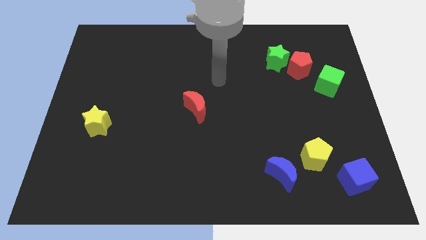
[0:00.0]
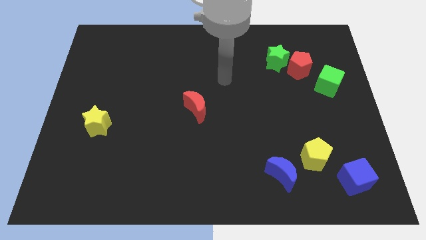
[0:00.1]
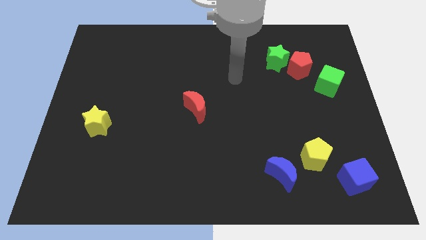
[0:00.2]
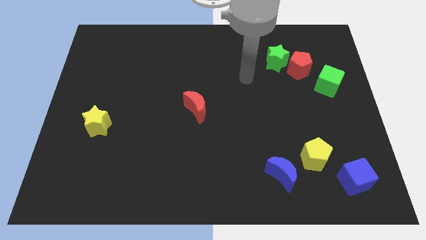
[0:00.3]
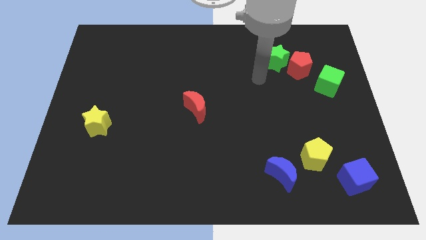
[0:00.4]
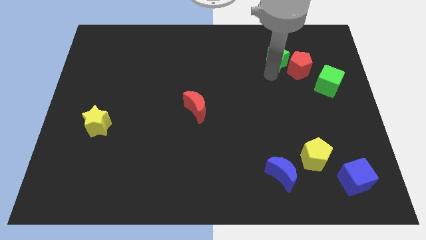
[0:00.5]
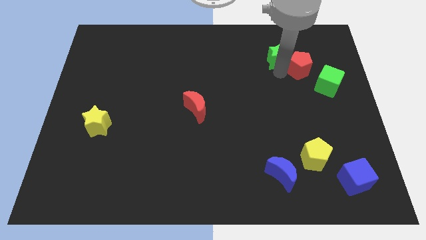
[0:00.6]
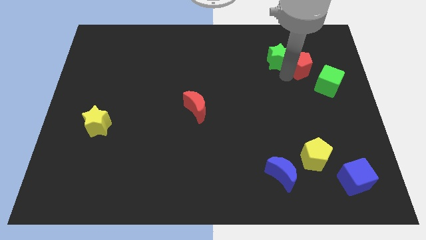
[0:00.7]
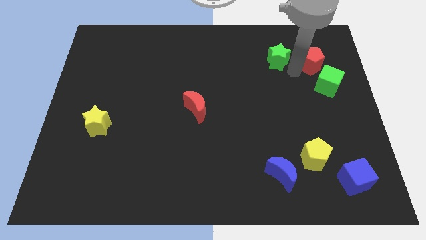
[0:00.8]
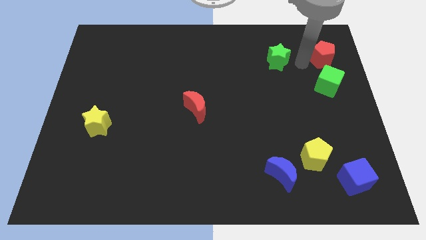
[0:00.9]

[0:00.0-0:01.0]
separate the green star from the red pentagon

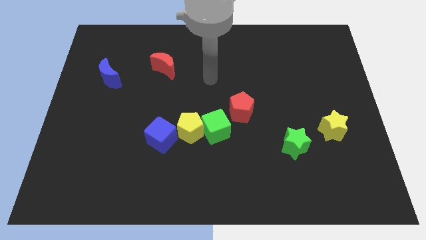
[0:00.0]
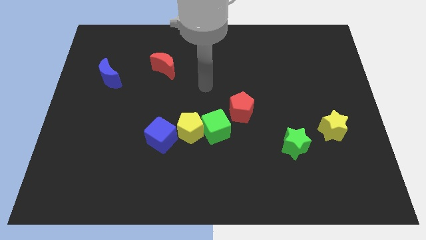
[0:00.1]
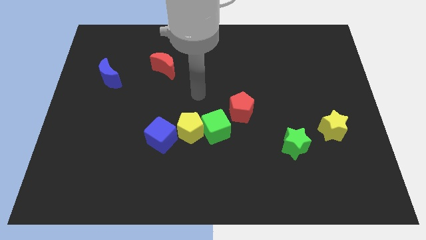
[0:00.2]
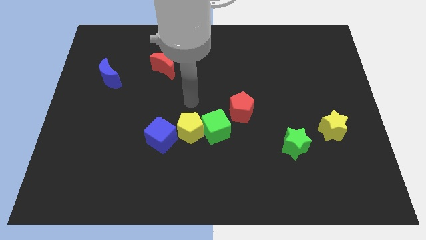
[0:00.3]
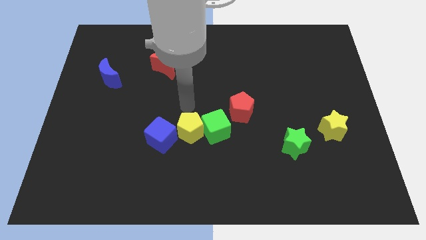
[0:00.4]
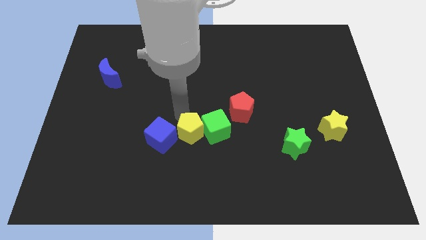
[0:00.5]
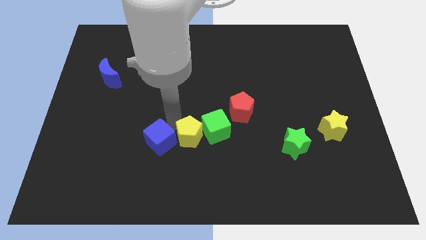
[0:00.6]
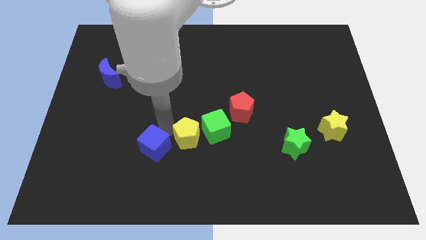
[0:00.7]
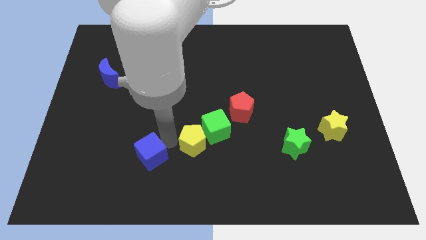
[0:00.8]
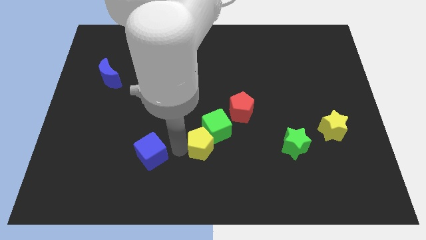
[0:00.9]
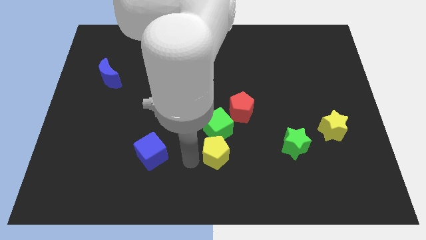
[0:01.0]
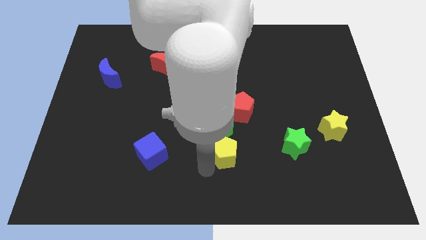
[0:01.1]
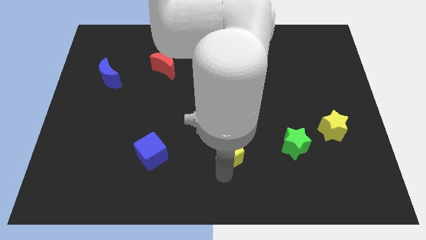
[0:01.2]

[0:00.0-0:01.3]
move the yellow pentagon away from the green cube and blue cube

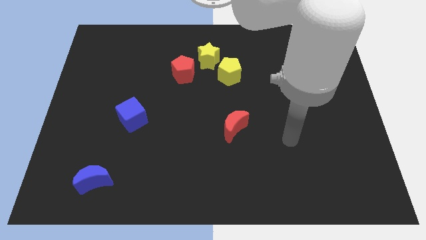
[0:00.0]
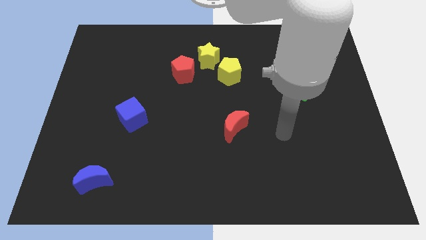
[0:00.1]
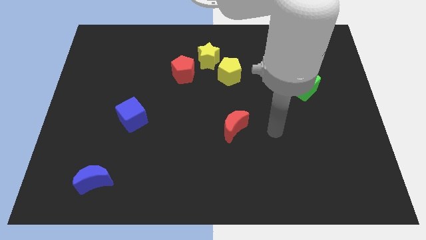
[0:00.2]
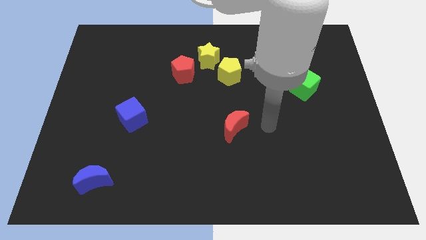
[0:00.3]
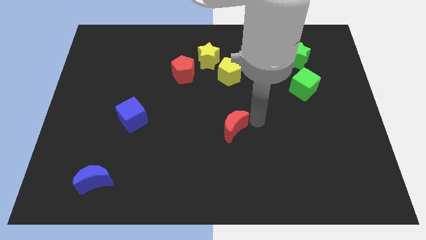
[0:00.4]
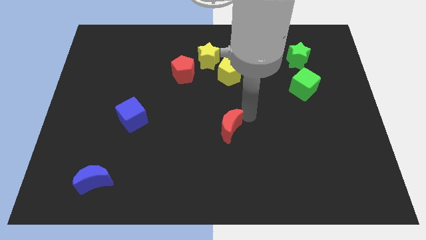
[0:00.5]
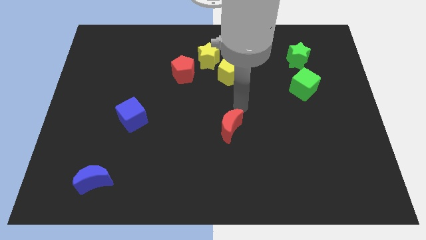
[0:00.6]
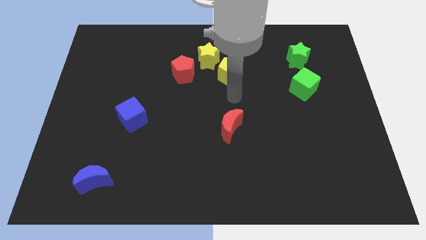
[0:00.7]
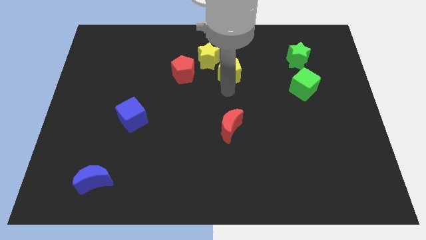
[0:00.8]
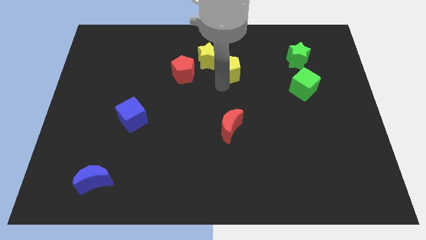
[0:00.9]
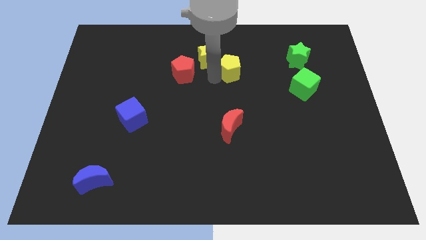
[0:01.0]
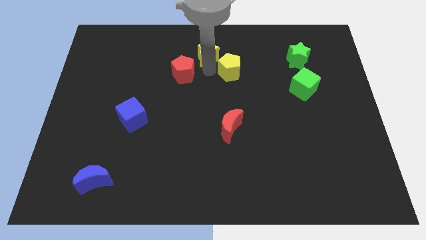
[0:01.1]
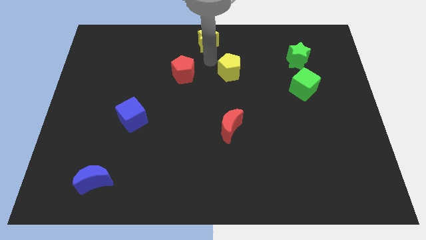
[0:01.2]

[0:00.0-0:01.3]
move the yellow pentagon away from the yellow star

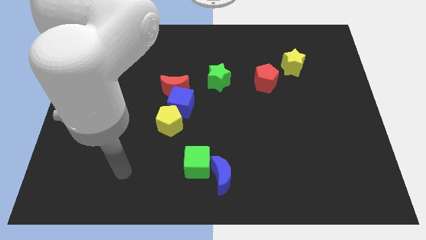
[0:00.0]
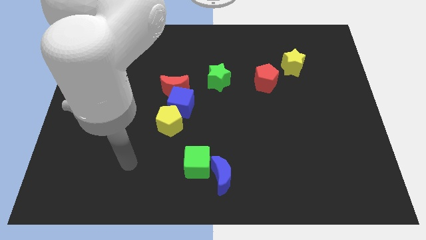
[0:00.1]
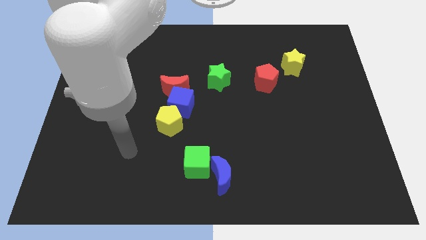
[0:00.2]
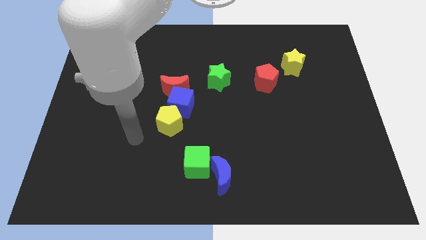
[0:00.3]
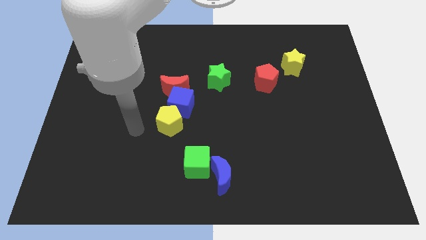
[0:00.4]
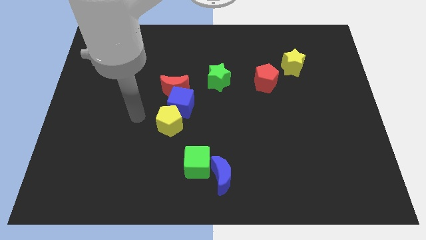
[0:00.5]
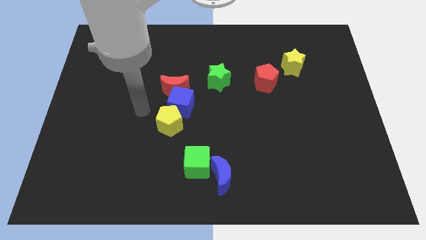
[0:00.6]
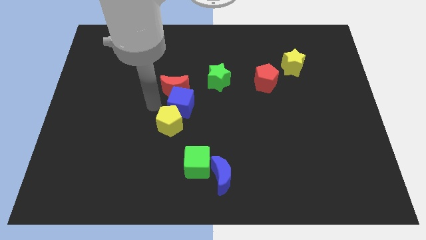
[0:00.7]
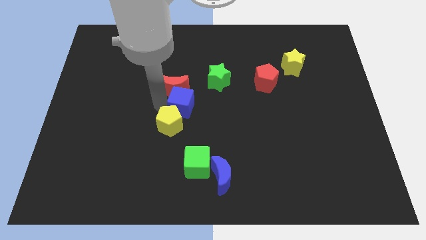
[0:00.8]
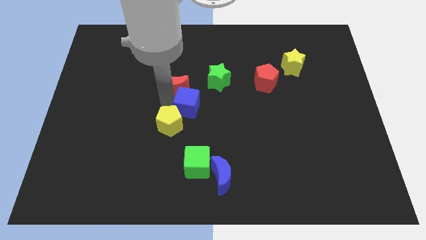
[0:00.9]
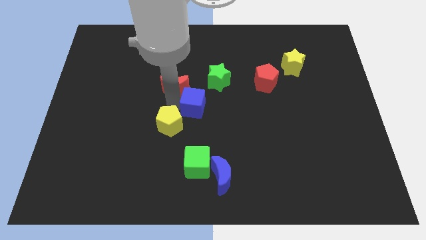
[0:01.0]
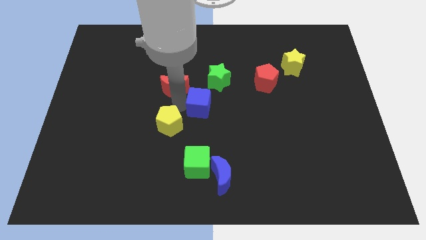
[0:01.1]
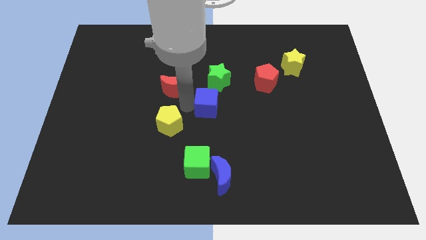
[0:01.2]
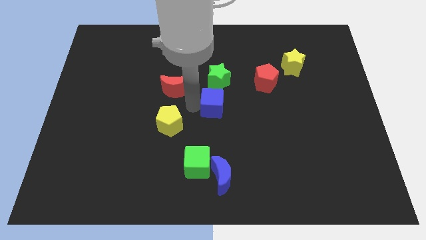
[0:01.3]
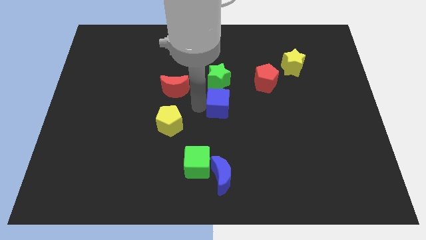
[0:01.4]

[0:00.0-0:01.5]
pull the blue cube apart from the red moon and yellow pentagon

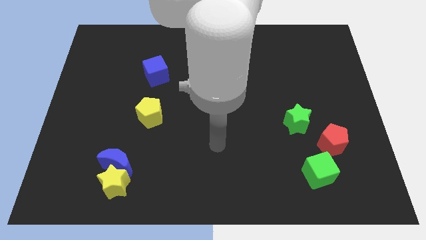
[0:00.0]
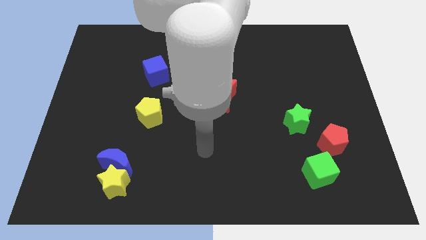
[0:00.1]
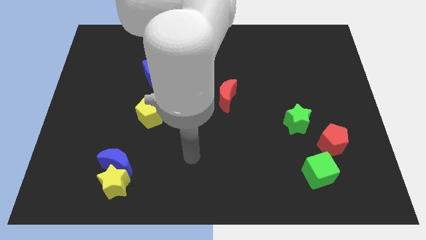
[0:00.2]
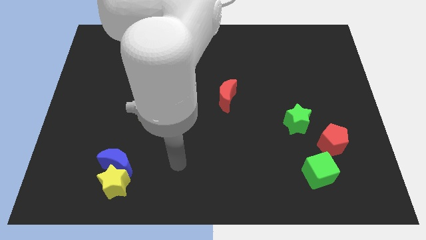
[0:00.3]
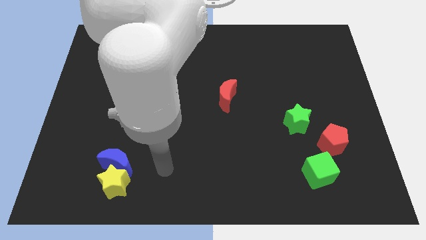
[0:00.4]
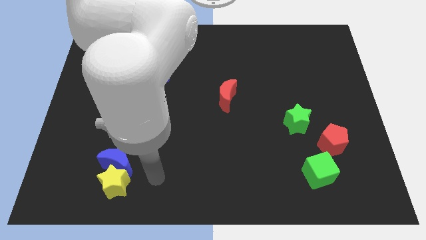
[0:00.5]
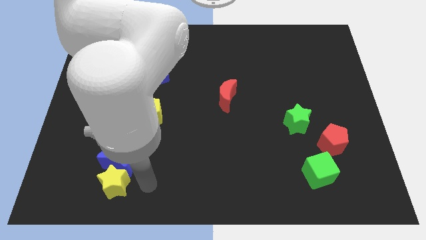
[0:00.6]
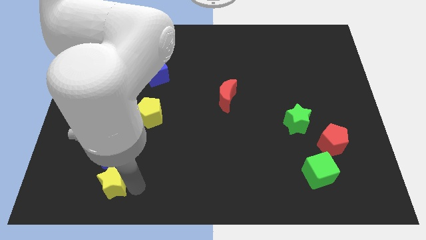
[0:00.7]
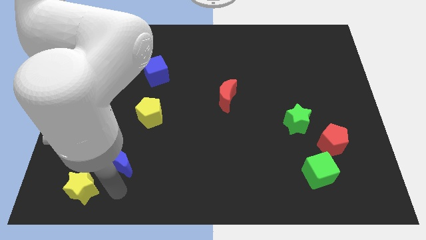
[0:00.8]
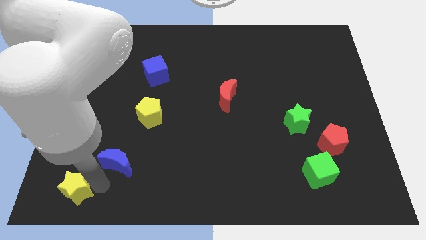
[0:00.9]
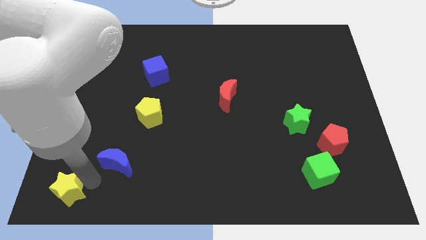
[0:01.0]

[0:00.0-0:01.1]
pull the blue moon apart from the yellow star

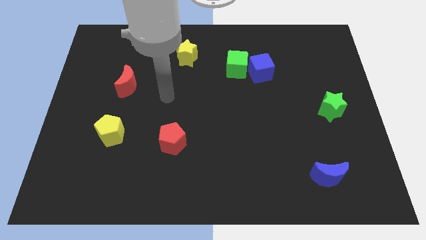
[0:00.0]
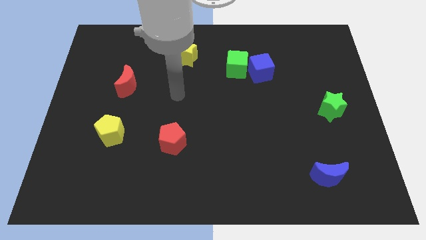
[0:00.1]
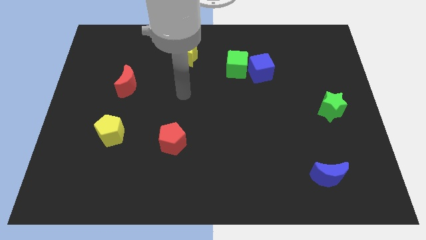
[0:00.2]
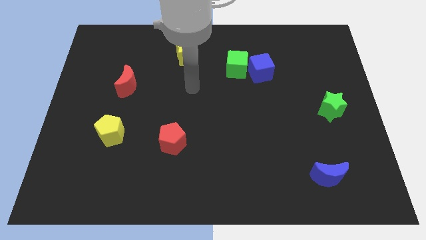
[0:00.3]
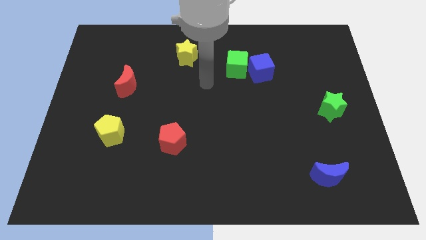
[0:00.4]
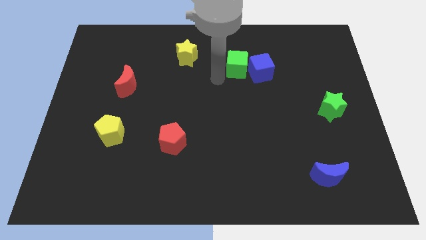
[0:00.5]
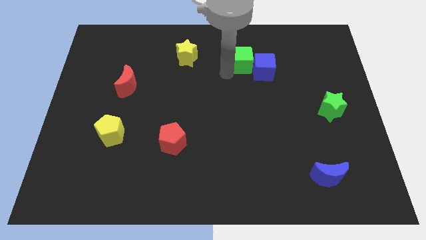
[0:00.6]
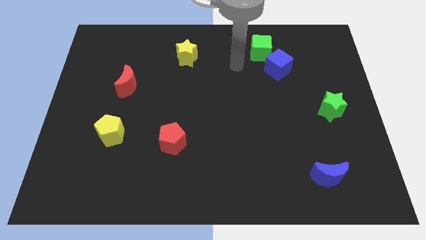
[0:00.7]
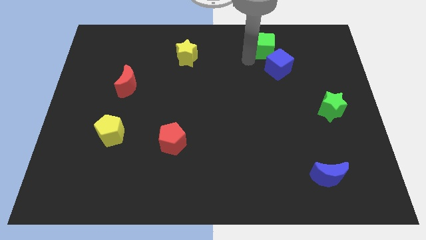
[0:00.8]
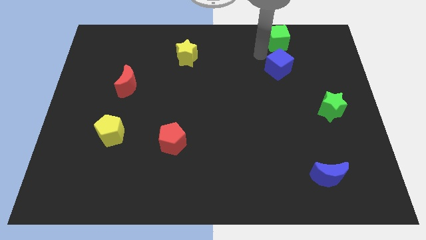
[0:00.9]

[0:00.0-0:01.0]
pull the blue cube apart from the green cube

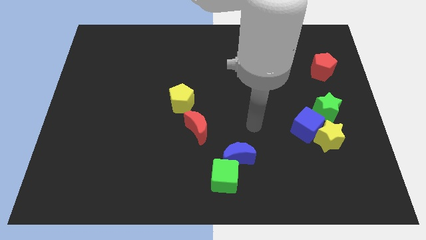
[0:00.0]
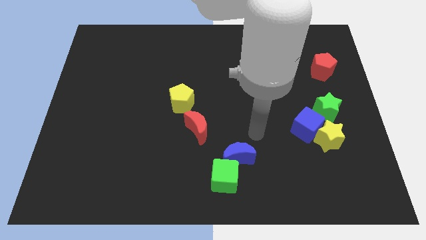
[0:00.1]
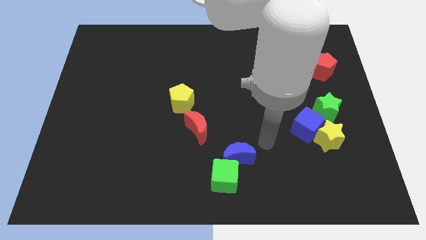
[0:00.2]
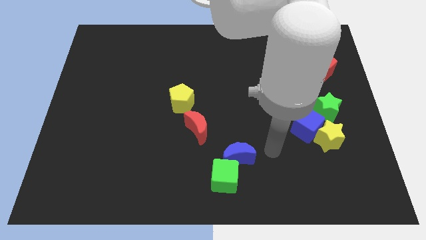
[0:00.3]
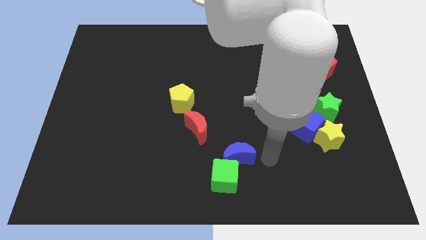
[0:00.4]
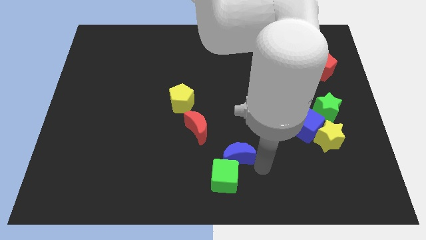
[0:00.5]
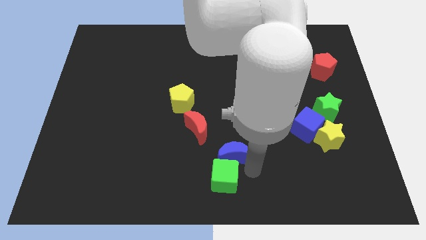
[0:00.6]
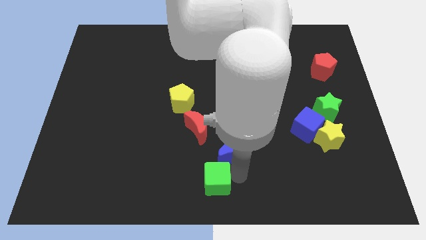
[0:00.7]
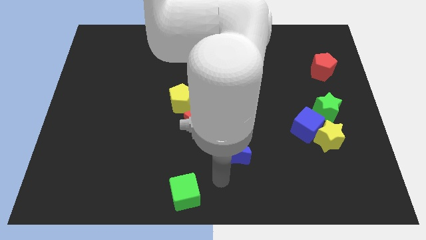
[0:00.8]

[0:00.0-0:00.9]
move the blue moon away from the green cube

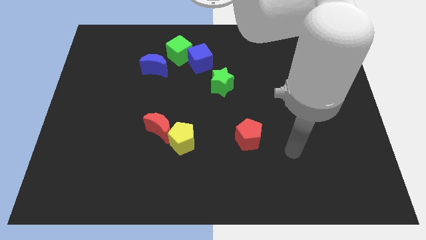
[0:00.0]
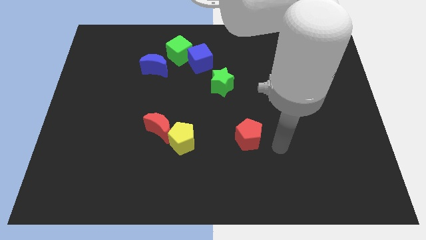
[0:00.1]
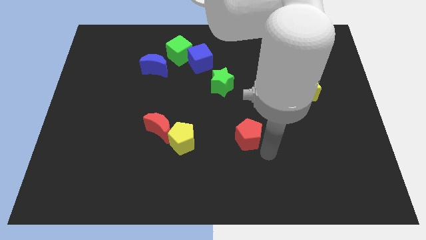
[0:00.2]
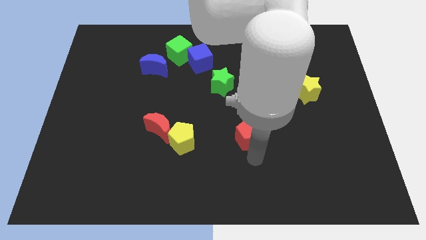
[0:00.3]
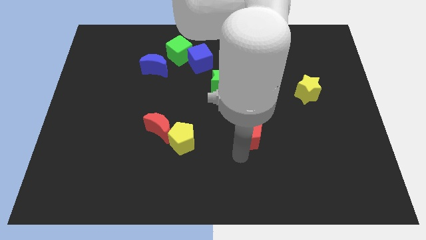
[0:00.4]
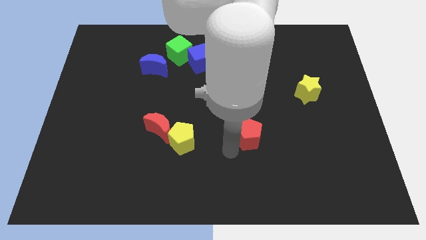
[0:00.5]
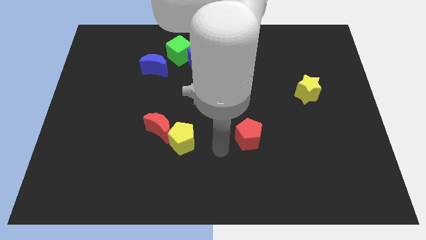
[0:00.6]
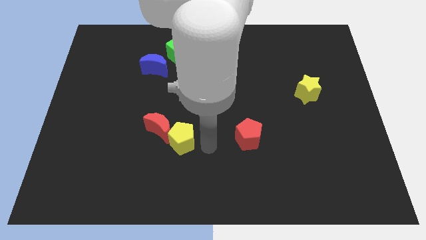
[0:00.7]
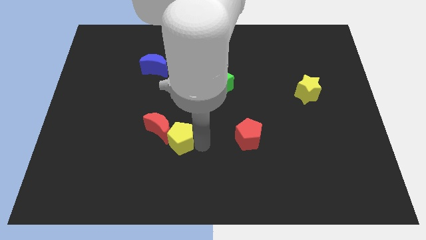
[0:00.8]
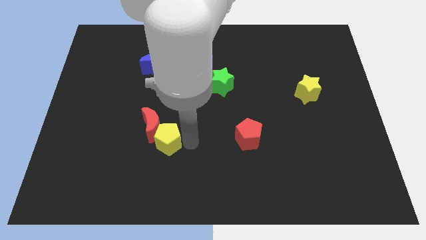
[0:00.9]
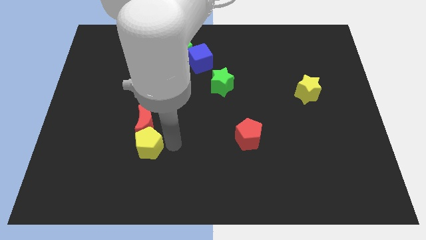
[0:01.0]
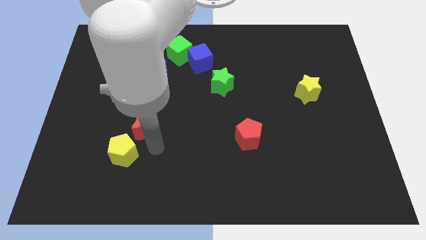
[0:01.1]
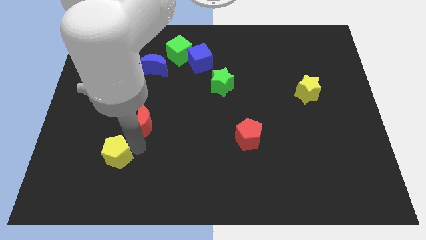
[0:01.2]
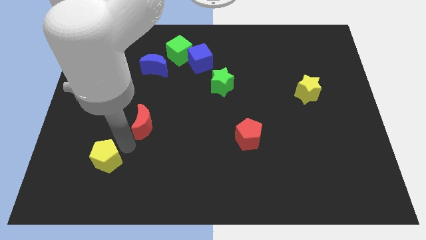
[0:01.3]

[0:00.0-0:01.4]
separate the red moon from the yellow pentagon
